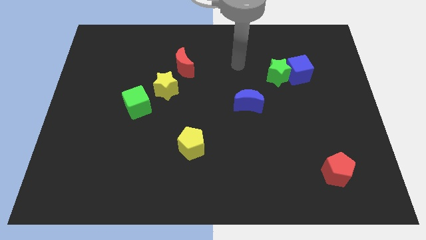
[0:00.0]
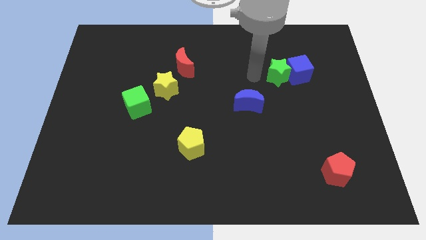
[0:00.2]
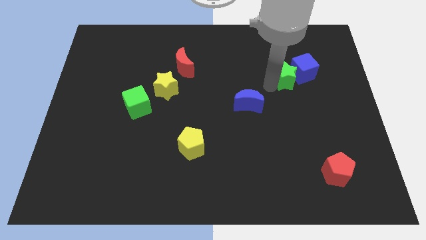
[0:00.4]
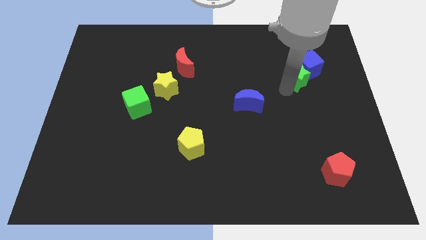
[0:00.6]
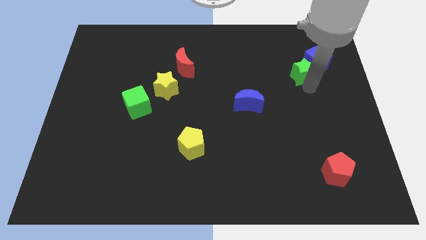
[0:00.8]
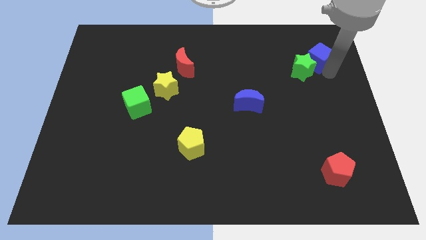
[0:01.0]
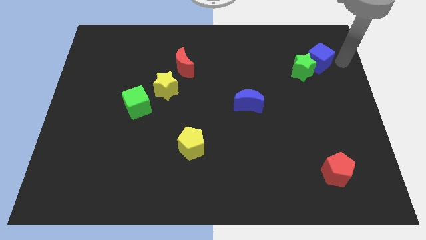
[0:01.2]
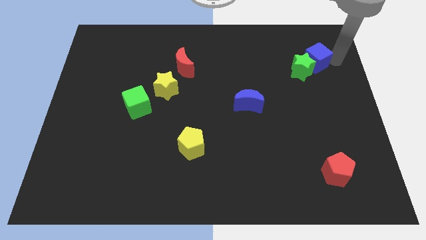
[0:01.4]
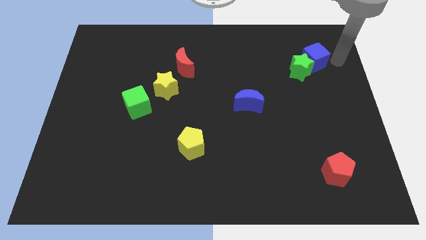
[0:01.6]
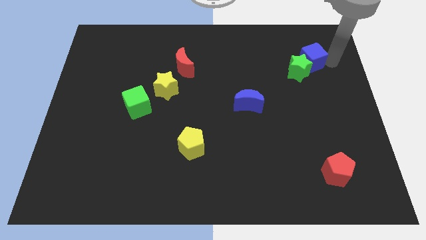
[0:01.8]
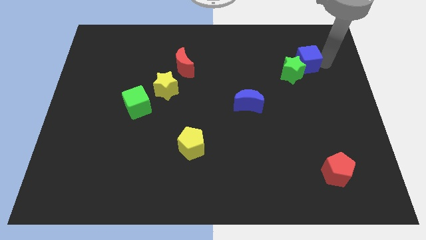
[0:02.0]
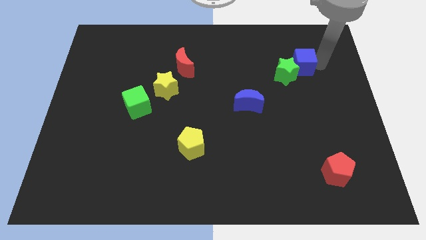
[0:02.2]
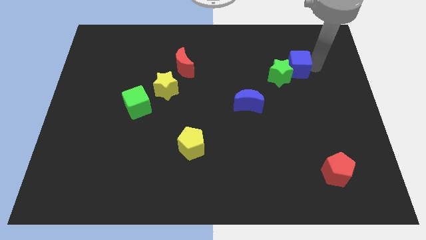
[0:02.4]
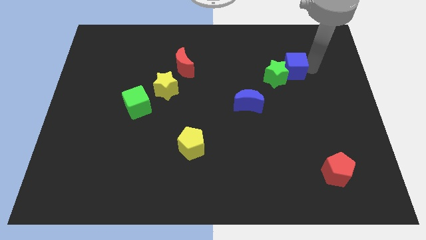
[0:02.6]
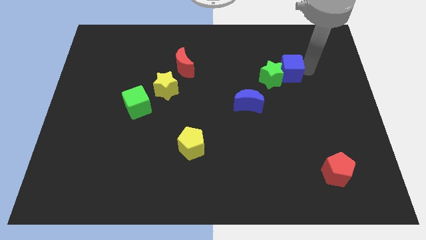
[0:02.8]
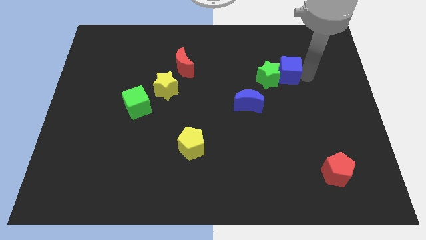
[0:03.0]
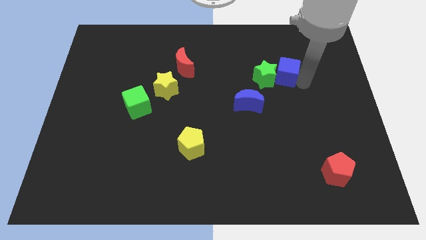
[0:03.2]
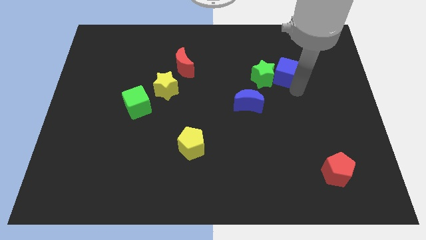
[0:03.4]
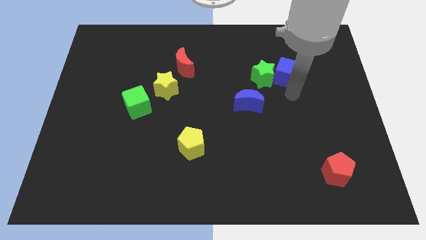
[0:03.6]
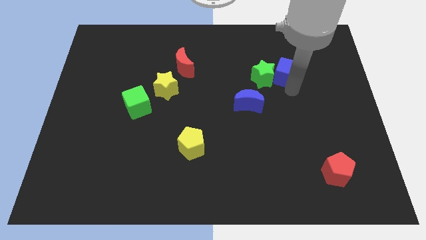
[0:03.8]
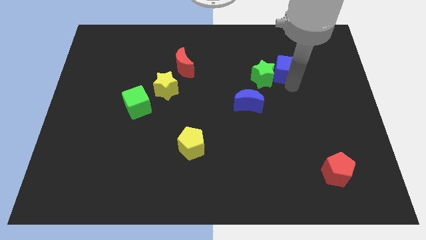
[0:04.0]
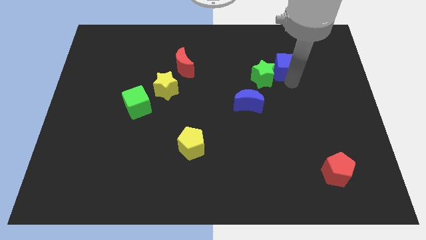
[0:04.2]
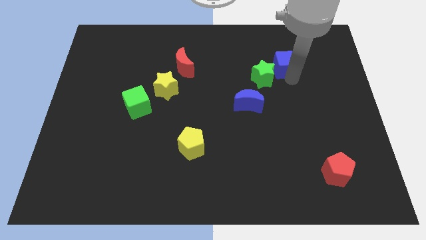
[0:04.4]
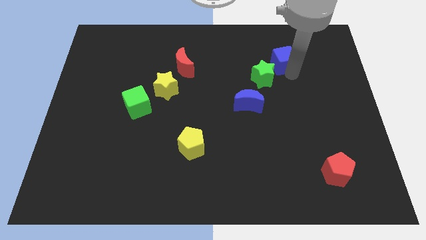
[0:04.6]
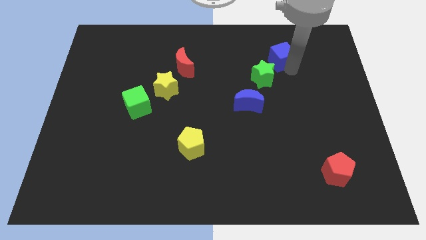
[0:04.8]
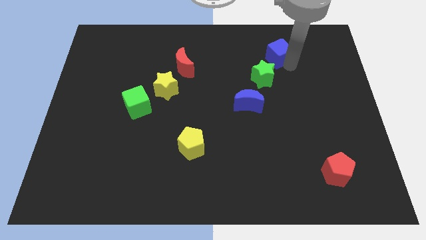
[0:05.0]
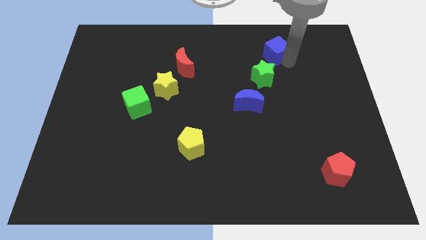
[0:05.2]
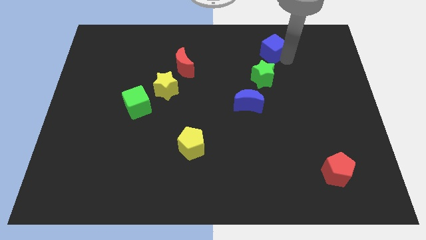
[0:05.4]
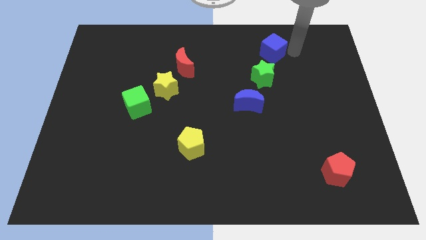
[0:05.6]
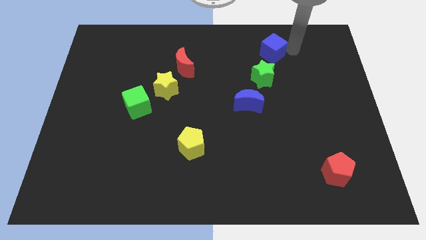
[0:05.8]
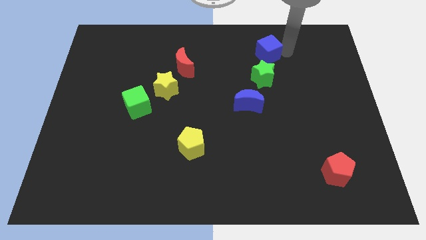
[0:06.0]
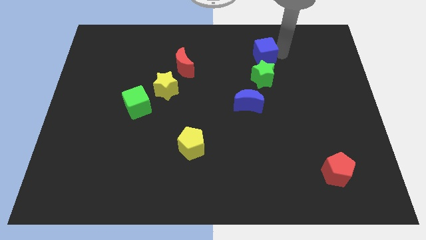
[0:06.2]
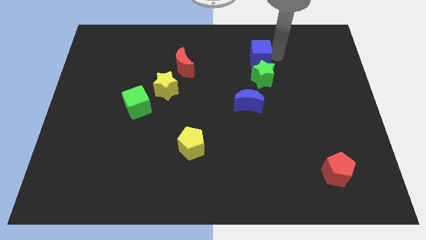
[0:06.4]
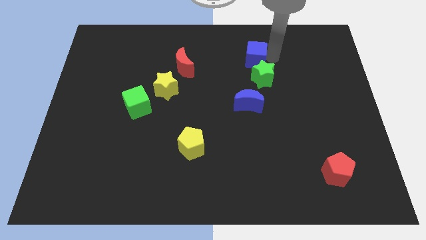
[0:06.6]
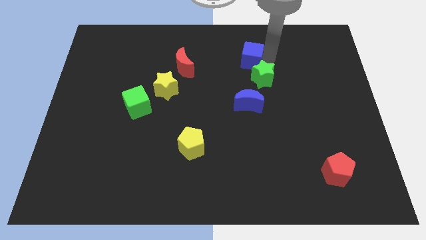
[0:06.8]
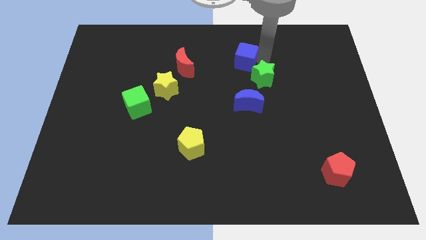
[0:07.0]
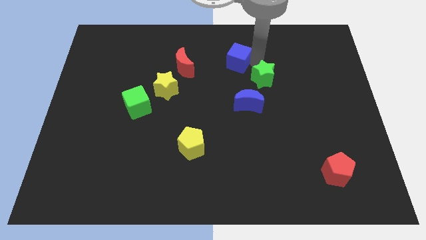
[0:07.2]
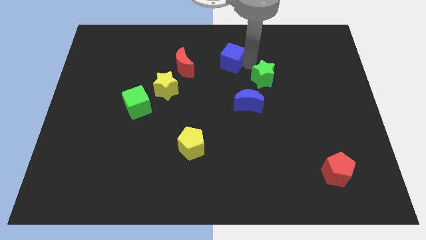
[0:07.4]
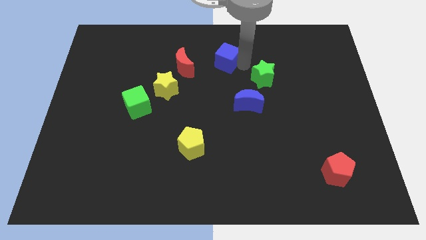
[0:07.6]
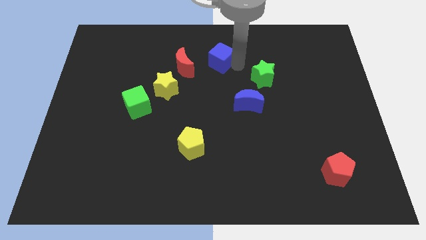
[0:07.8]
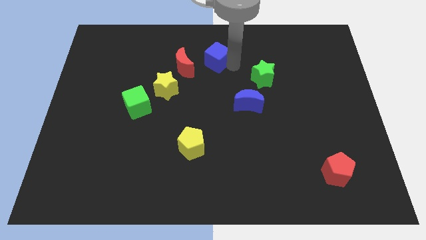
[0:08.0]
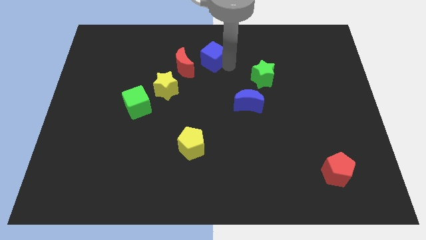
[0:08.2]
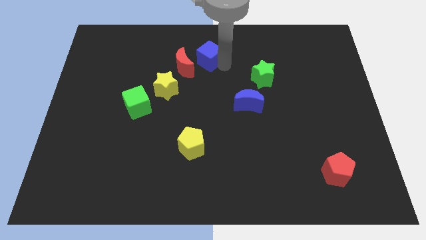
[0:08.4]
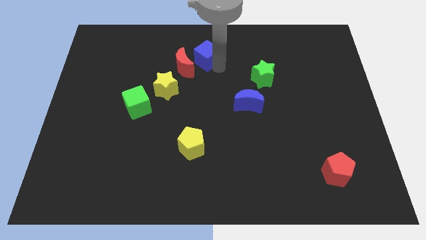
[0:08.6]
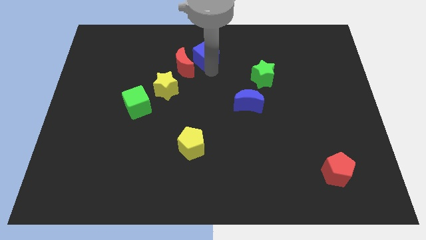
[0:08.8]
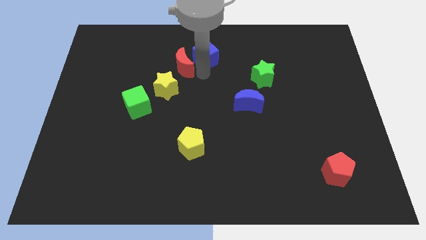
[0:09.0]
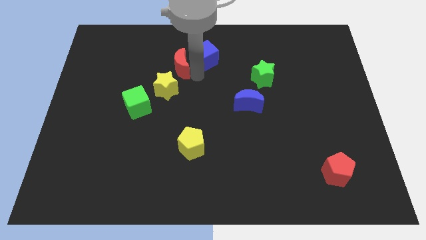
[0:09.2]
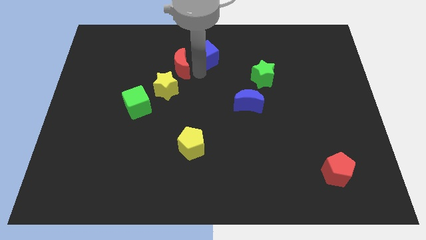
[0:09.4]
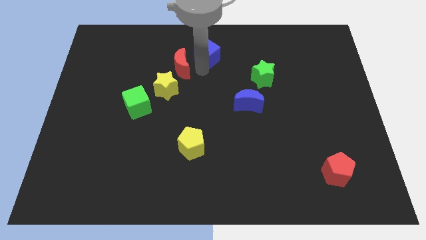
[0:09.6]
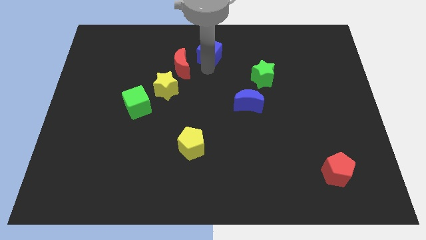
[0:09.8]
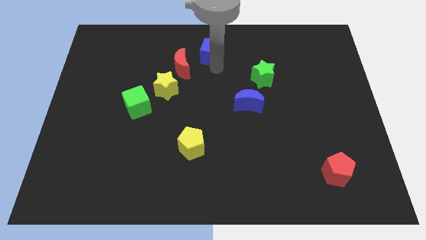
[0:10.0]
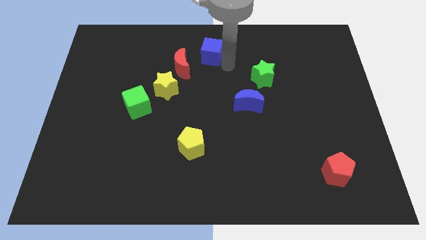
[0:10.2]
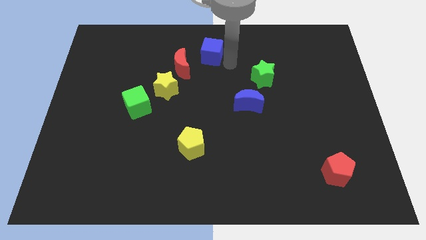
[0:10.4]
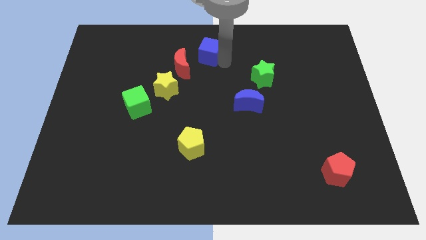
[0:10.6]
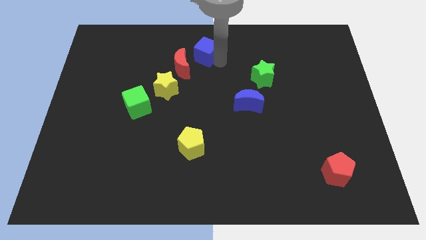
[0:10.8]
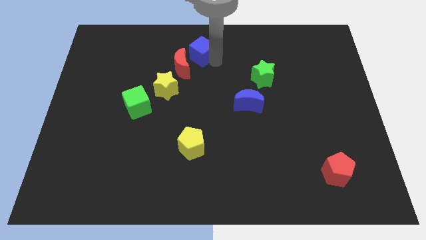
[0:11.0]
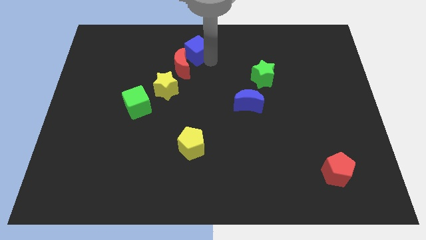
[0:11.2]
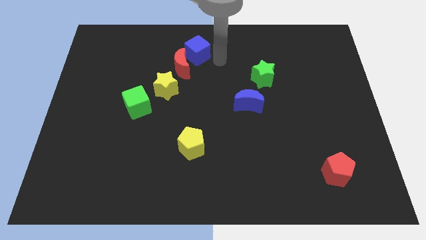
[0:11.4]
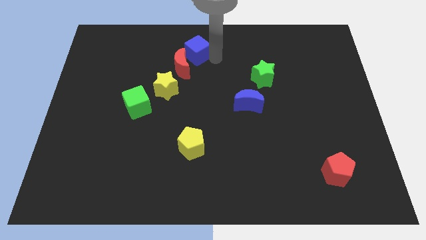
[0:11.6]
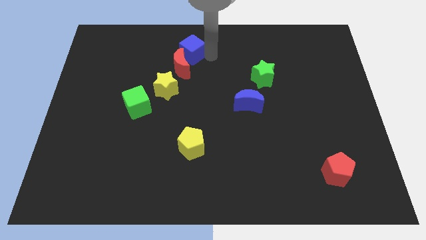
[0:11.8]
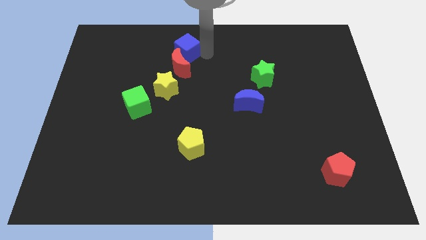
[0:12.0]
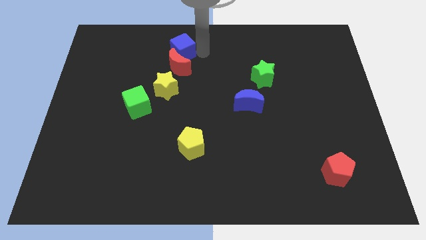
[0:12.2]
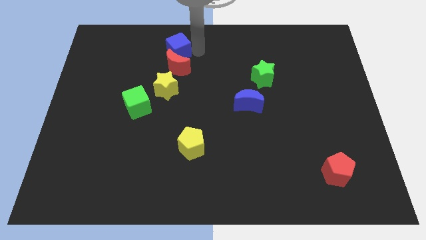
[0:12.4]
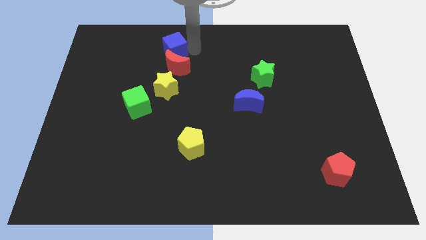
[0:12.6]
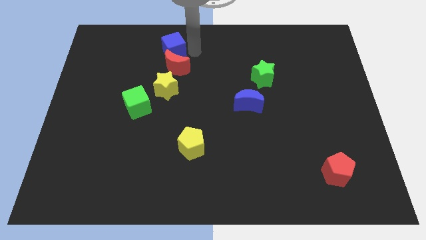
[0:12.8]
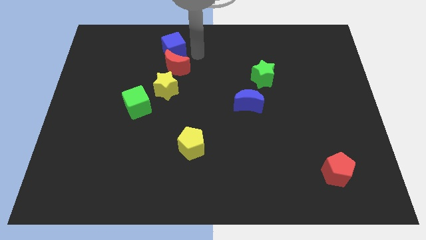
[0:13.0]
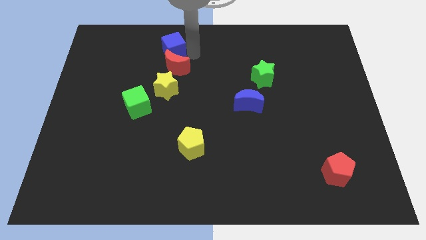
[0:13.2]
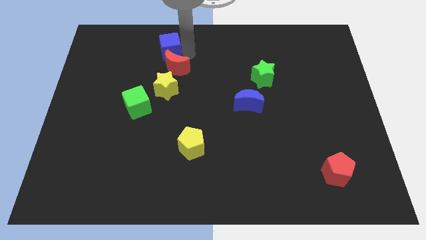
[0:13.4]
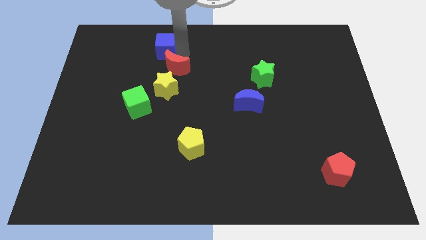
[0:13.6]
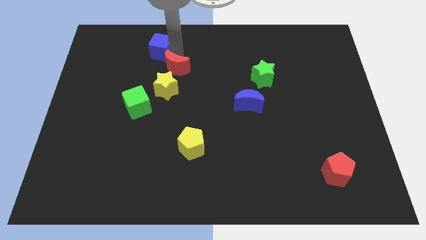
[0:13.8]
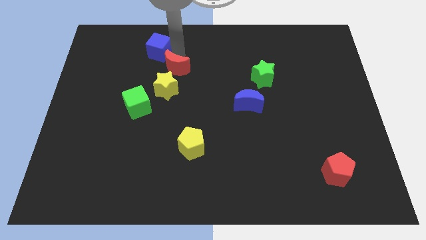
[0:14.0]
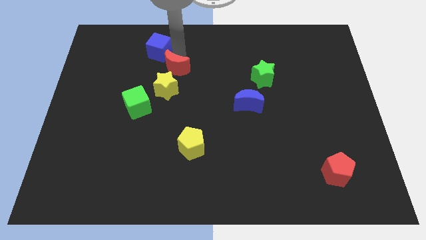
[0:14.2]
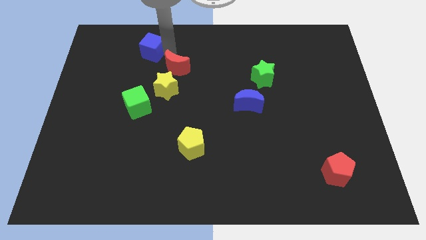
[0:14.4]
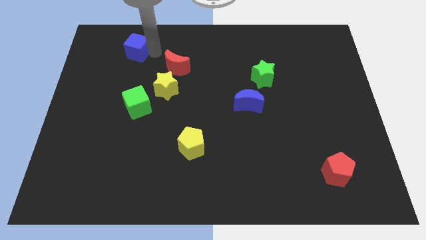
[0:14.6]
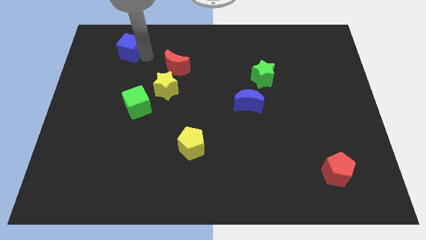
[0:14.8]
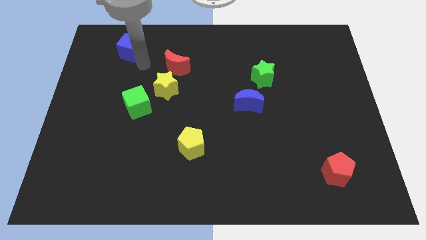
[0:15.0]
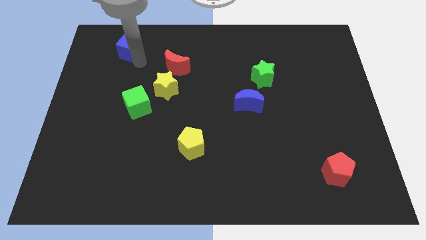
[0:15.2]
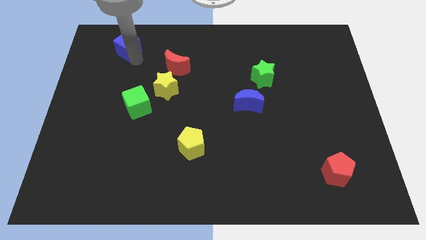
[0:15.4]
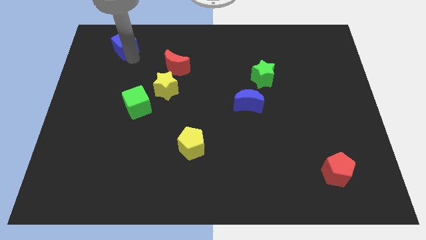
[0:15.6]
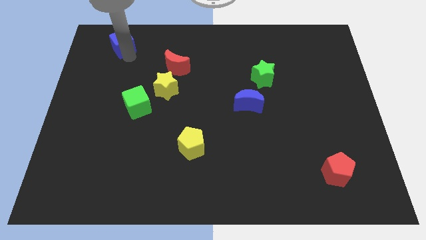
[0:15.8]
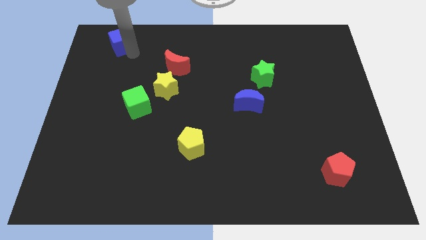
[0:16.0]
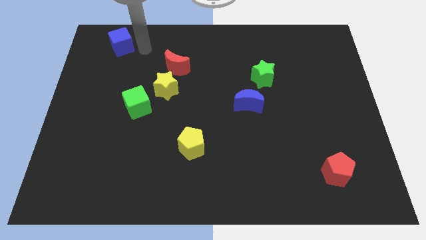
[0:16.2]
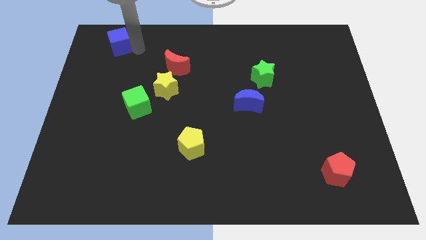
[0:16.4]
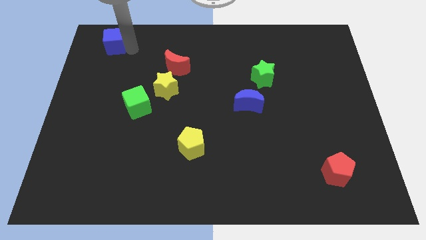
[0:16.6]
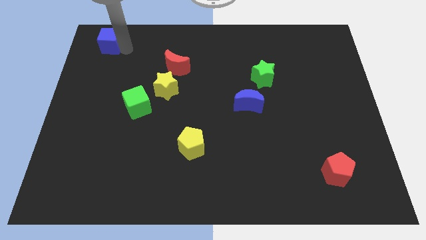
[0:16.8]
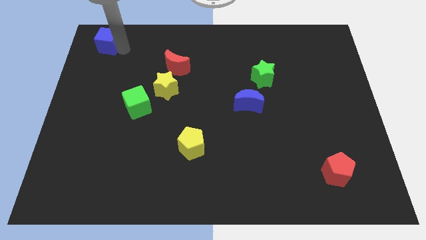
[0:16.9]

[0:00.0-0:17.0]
slide the blue cube to the top left
